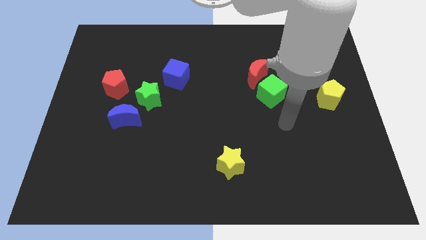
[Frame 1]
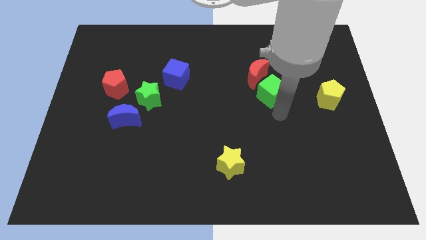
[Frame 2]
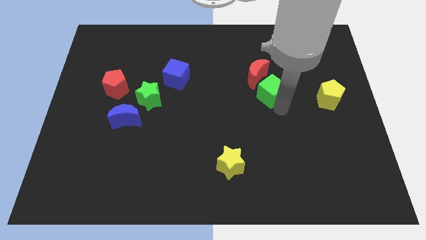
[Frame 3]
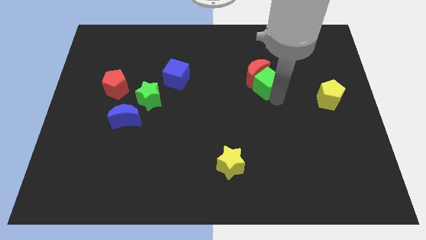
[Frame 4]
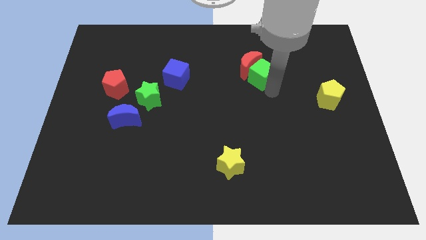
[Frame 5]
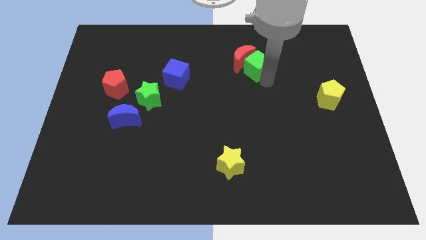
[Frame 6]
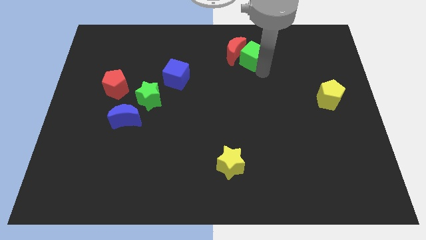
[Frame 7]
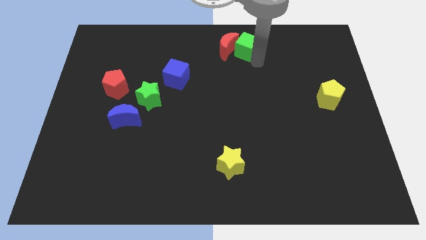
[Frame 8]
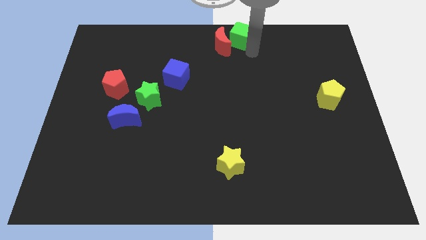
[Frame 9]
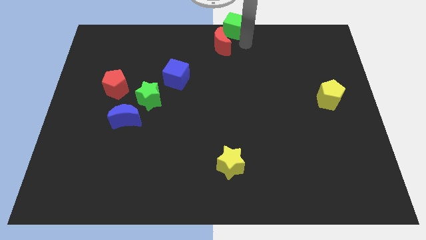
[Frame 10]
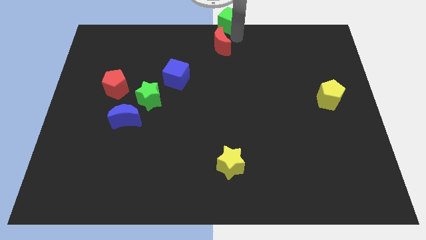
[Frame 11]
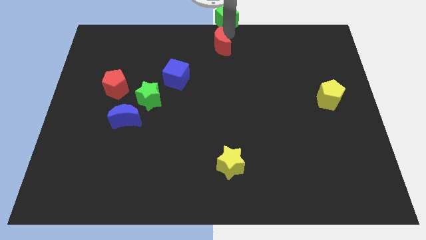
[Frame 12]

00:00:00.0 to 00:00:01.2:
separate the red moon from the green cube

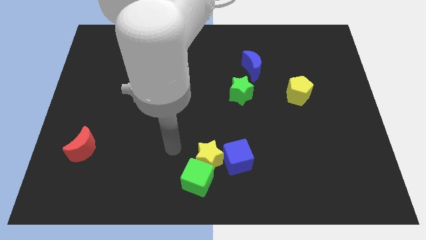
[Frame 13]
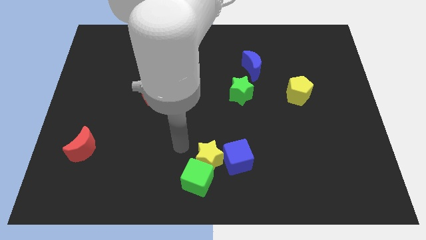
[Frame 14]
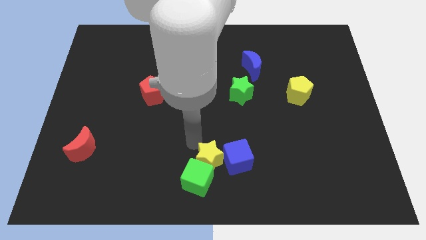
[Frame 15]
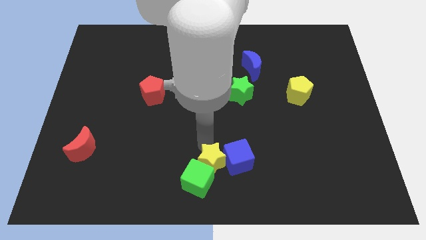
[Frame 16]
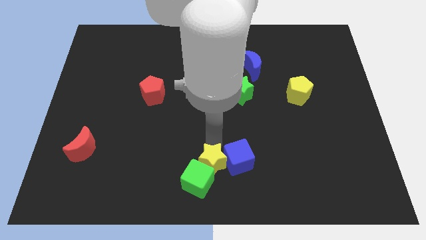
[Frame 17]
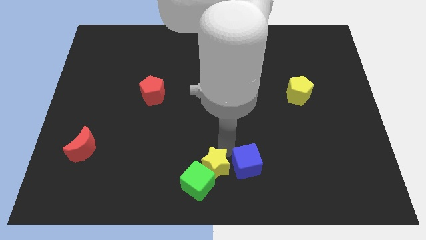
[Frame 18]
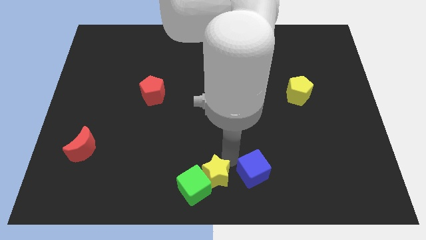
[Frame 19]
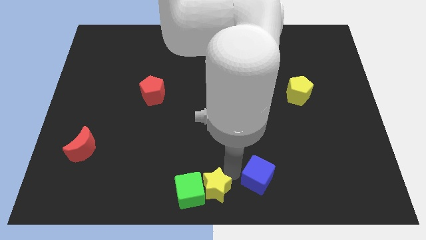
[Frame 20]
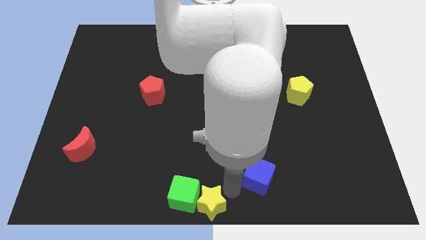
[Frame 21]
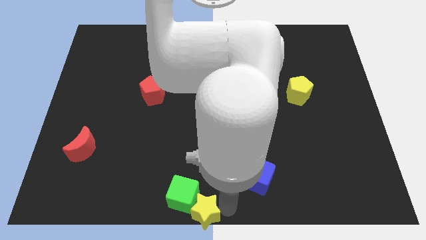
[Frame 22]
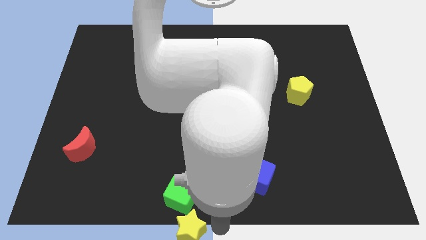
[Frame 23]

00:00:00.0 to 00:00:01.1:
pull the yellow star apart from the green cube and blue cube

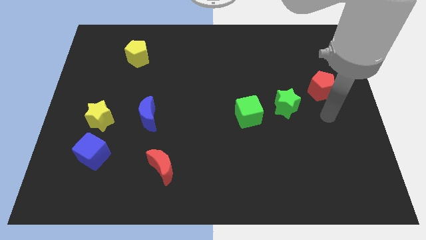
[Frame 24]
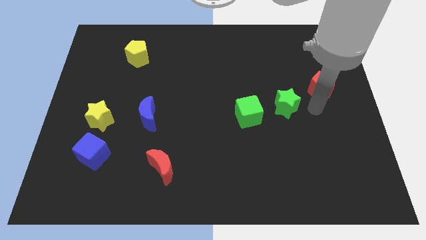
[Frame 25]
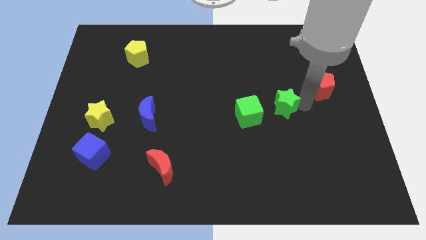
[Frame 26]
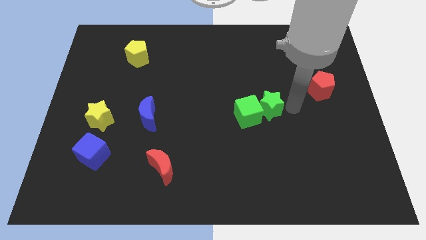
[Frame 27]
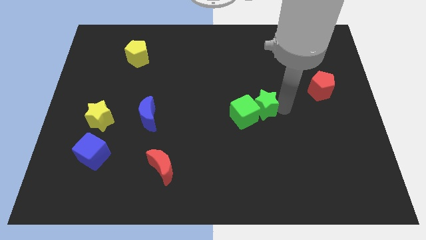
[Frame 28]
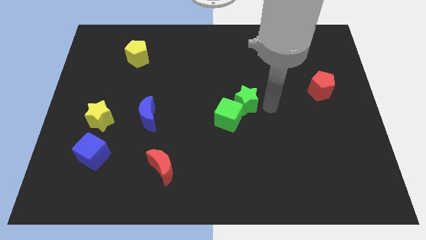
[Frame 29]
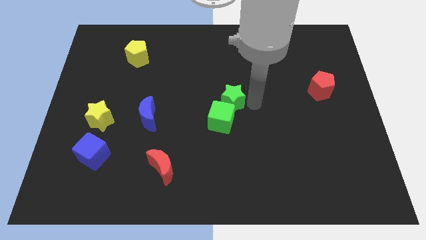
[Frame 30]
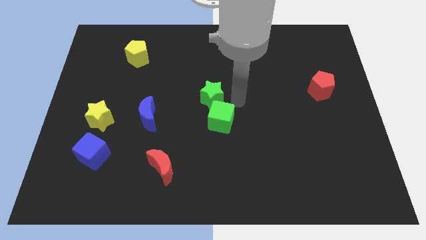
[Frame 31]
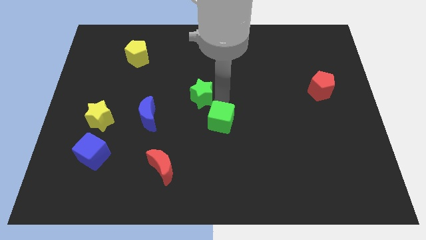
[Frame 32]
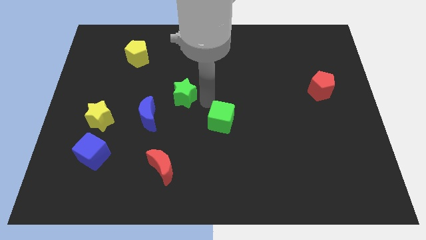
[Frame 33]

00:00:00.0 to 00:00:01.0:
move the green cube away from the green star

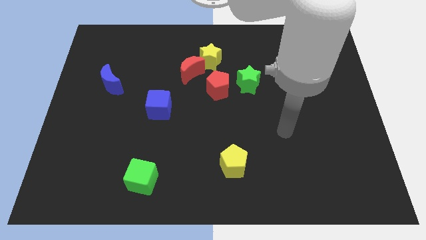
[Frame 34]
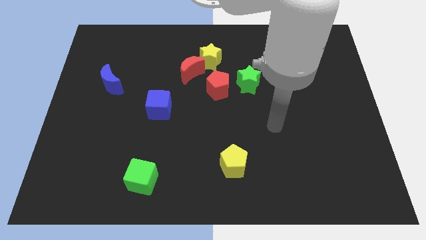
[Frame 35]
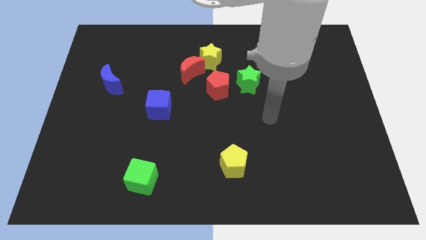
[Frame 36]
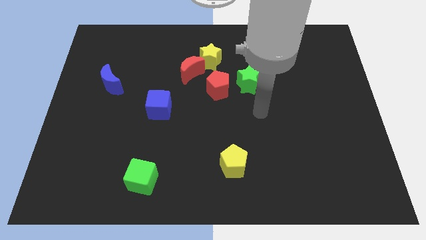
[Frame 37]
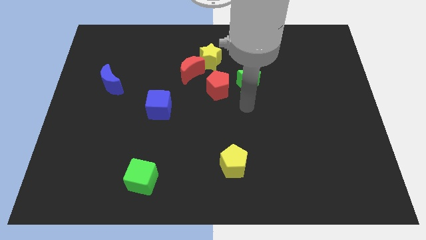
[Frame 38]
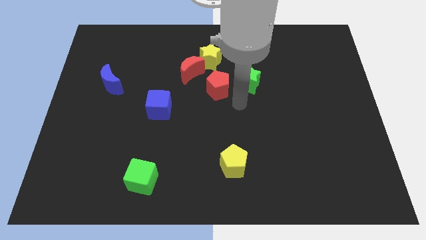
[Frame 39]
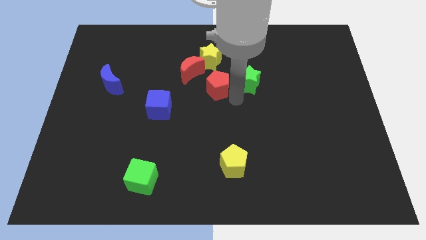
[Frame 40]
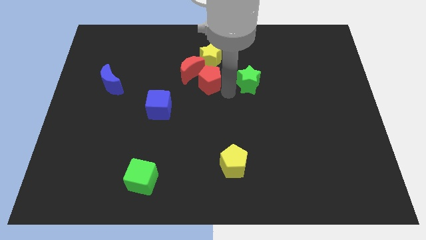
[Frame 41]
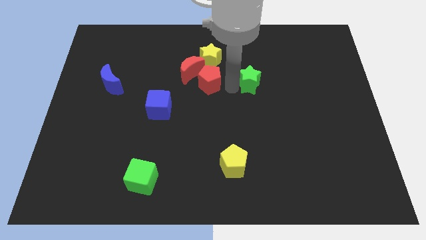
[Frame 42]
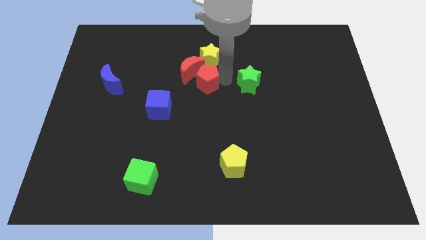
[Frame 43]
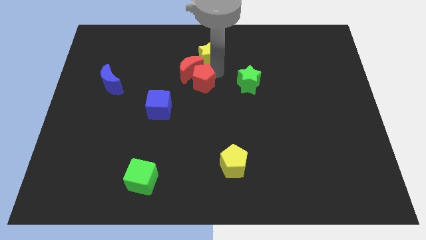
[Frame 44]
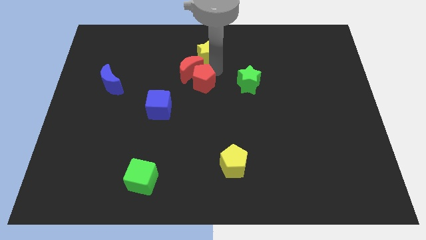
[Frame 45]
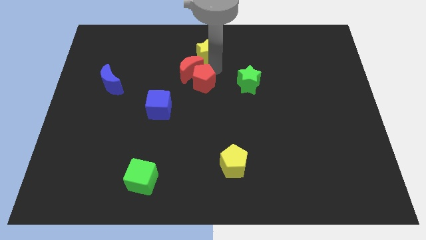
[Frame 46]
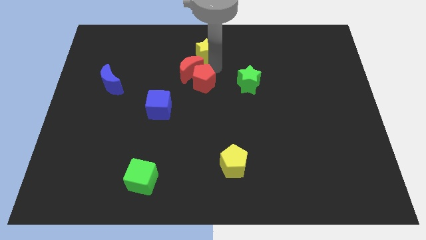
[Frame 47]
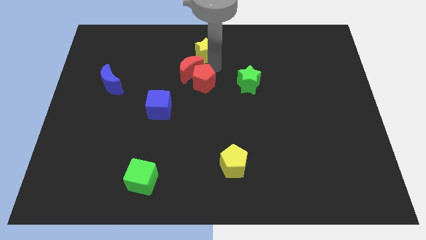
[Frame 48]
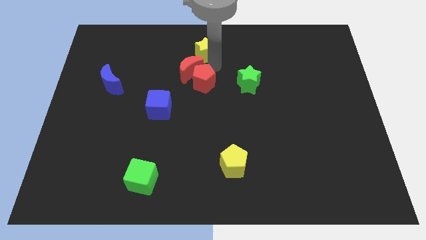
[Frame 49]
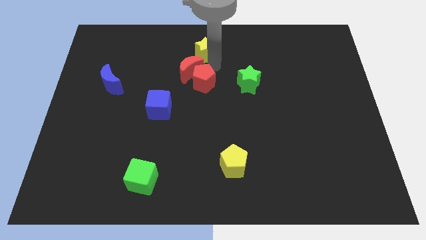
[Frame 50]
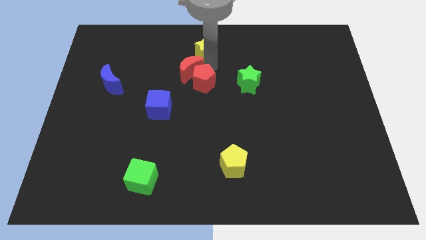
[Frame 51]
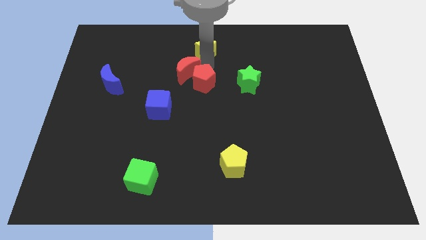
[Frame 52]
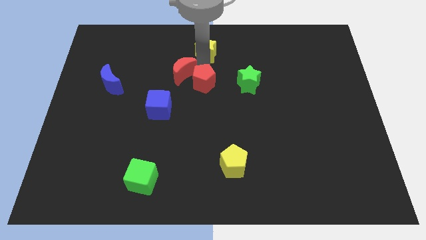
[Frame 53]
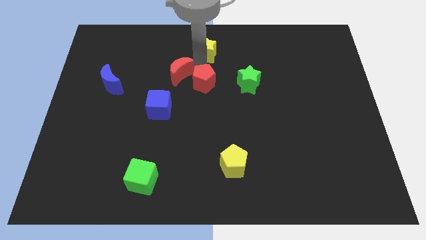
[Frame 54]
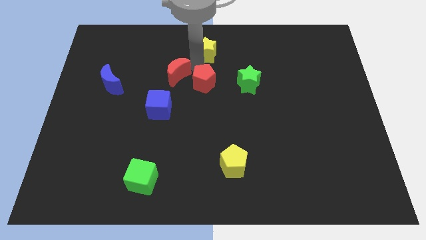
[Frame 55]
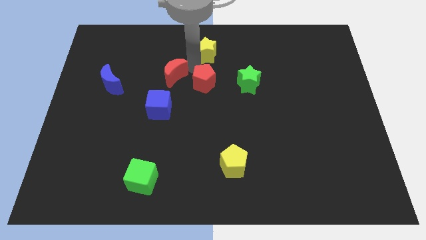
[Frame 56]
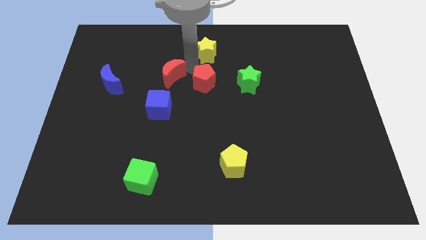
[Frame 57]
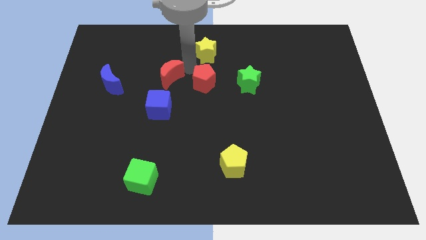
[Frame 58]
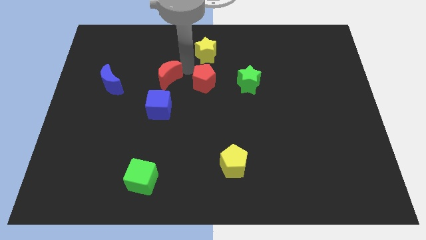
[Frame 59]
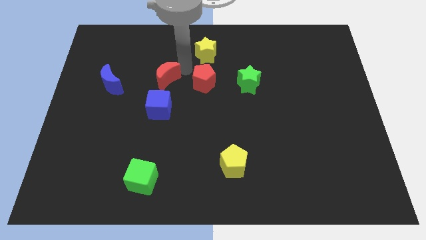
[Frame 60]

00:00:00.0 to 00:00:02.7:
pull the red moon apart from the yellow star and red pentagon

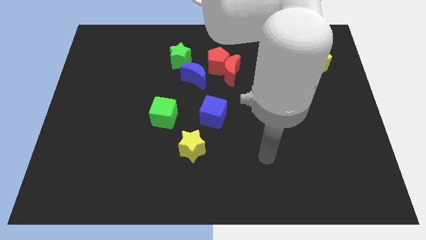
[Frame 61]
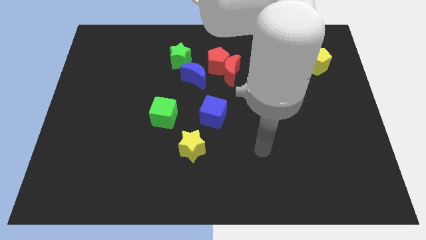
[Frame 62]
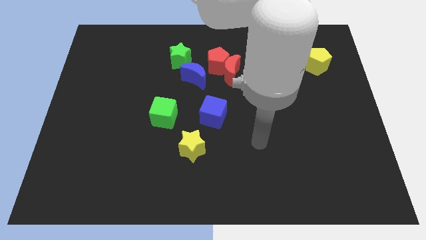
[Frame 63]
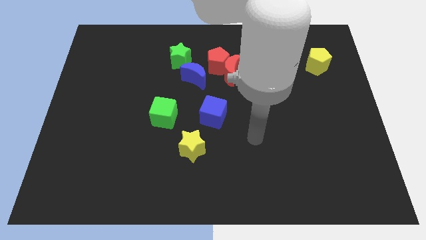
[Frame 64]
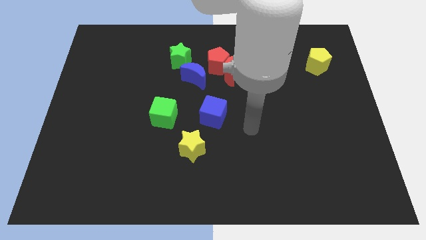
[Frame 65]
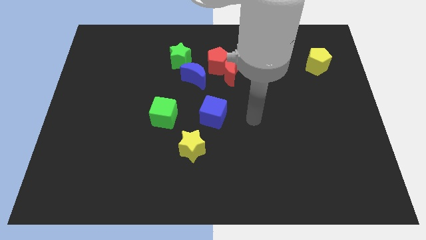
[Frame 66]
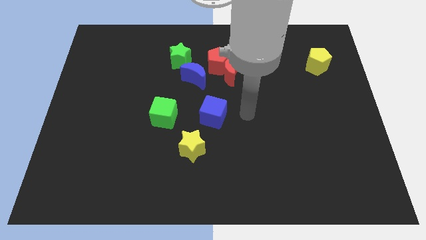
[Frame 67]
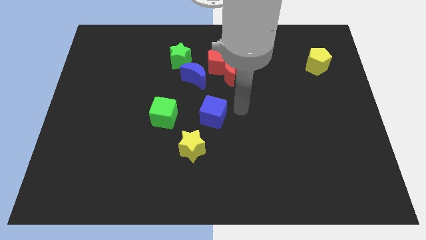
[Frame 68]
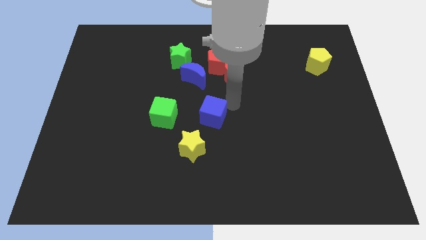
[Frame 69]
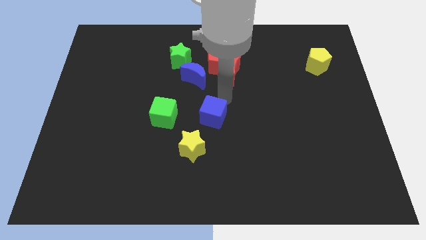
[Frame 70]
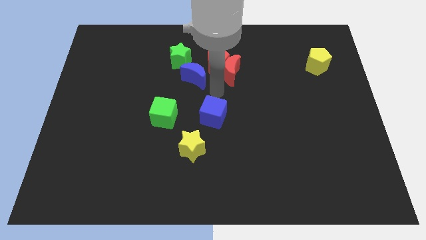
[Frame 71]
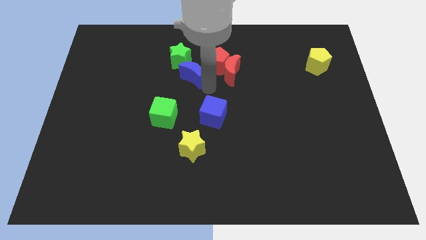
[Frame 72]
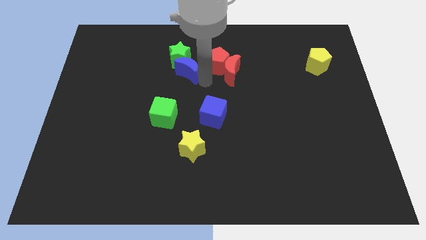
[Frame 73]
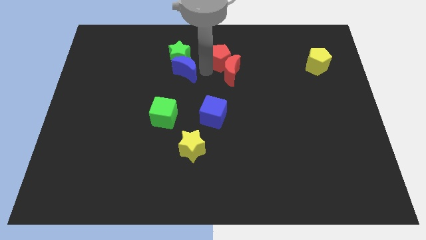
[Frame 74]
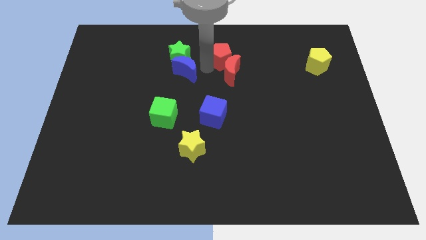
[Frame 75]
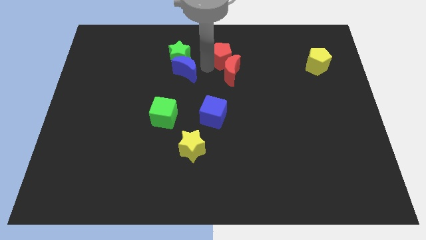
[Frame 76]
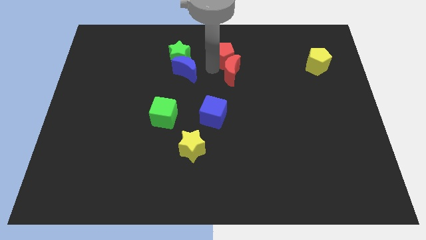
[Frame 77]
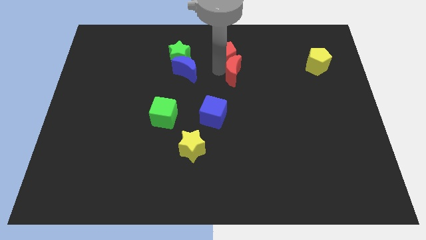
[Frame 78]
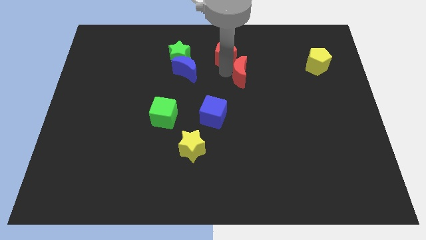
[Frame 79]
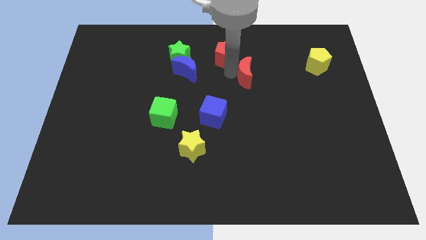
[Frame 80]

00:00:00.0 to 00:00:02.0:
move the red moon away from the red pentagon and blue moon

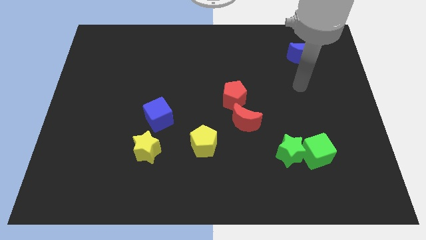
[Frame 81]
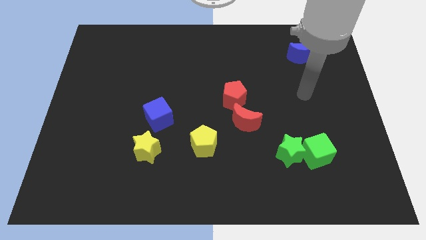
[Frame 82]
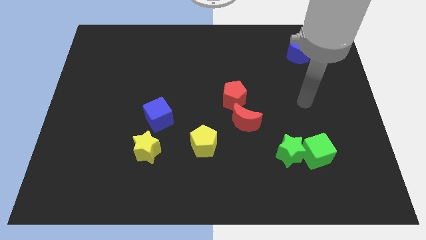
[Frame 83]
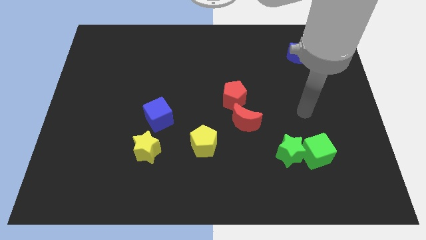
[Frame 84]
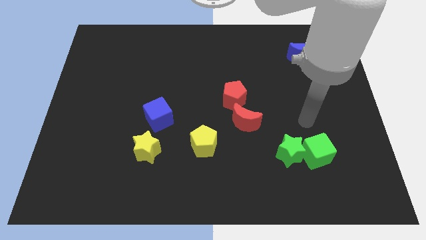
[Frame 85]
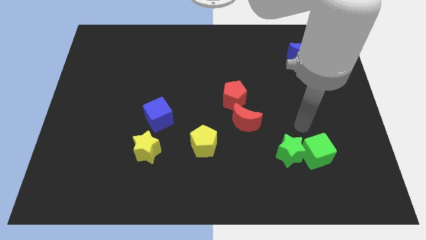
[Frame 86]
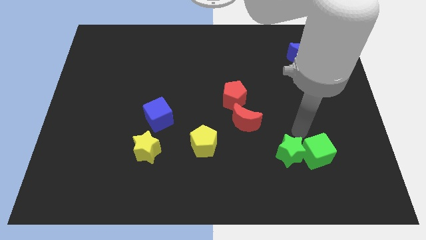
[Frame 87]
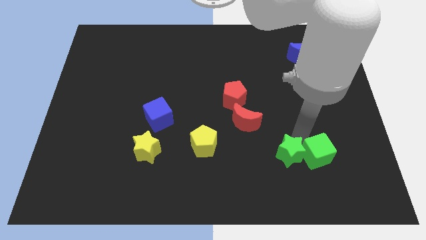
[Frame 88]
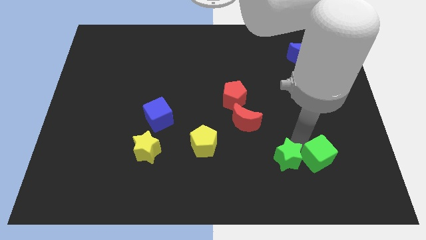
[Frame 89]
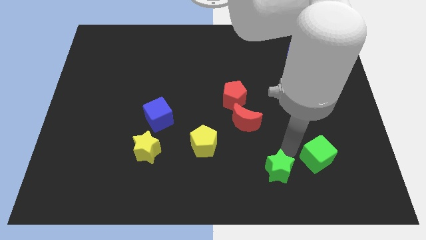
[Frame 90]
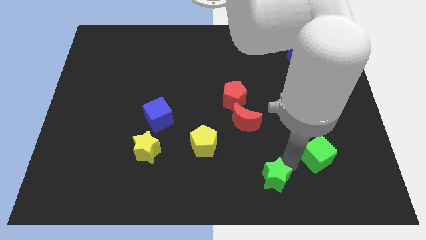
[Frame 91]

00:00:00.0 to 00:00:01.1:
separate the green cube from the green star
